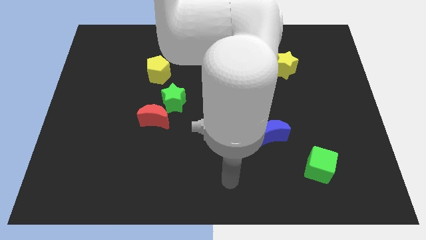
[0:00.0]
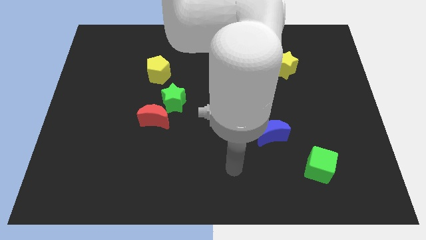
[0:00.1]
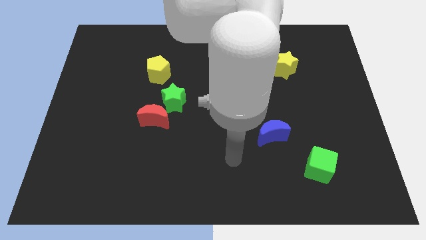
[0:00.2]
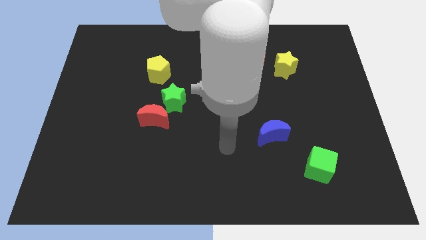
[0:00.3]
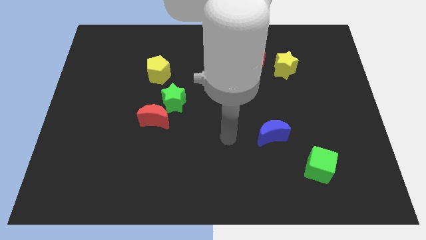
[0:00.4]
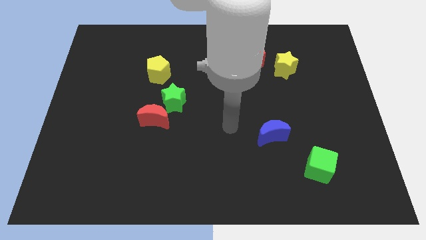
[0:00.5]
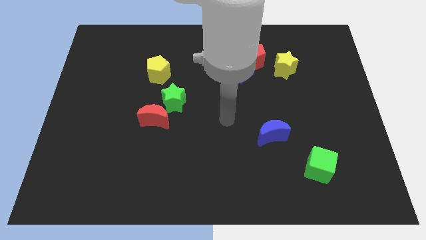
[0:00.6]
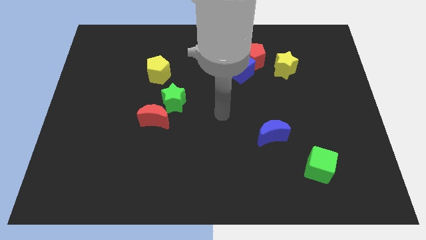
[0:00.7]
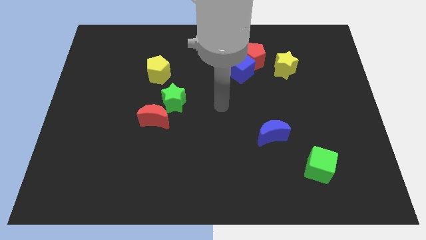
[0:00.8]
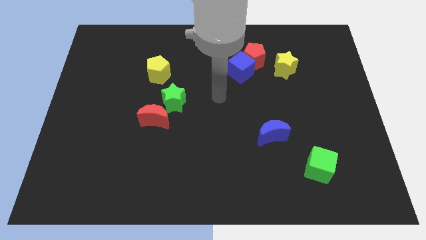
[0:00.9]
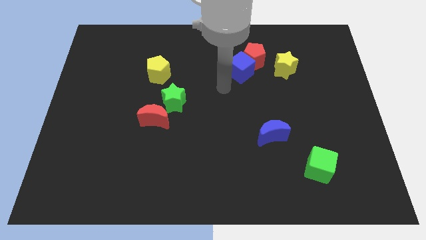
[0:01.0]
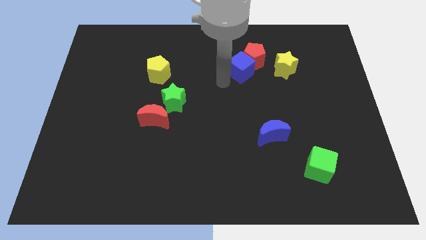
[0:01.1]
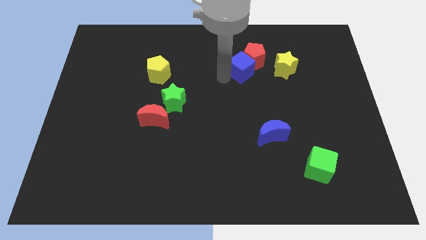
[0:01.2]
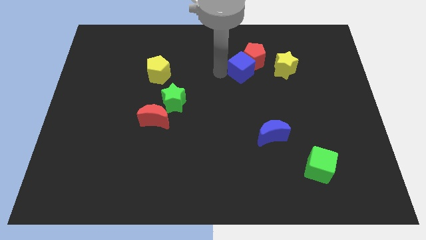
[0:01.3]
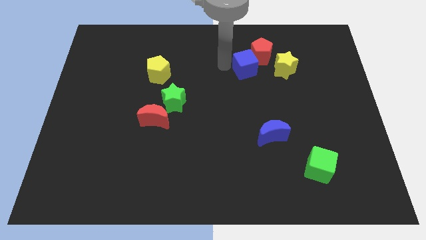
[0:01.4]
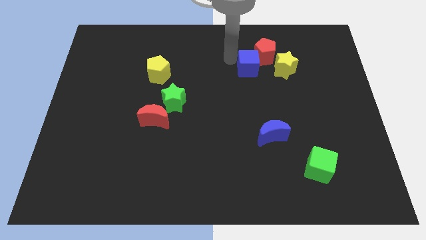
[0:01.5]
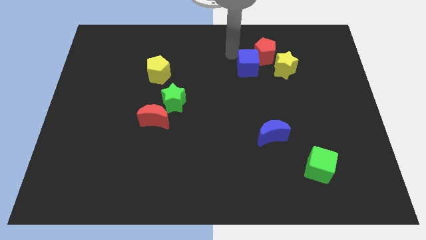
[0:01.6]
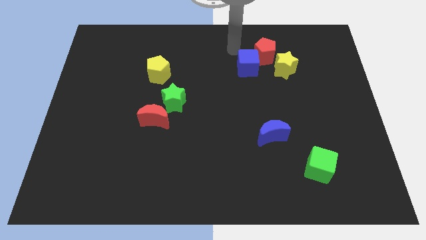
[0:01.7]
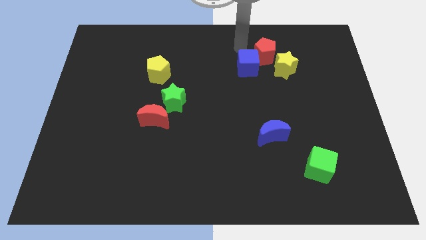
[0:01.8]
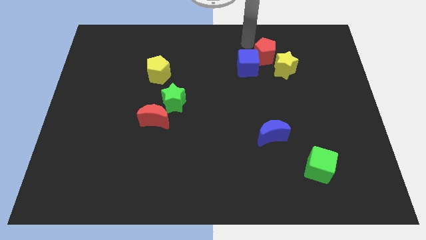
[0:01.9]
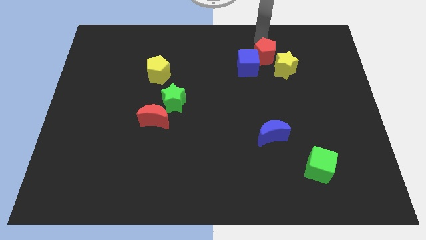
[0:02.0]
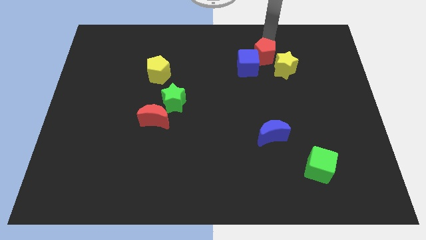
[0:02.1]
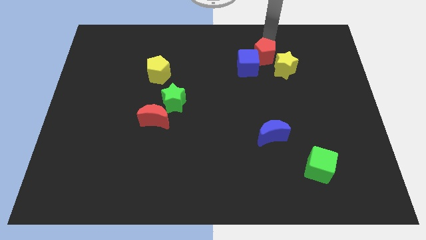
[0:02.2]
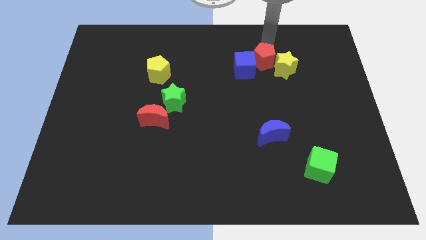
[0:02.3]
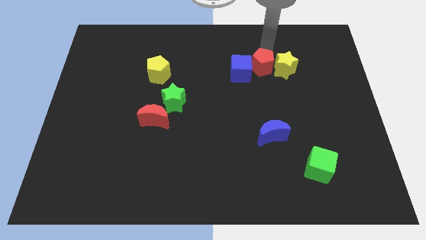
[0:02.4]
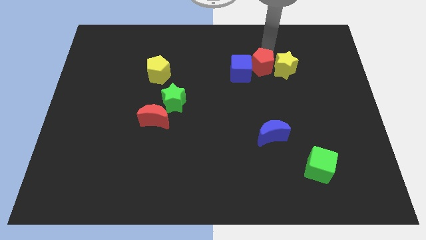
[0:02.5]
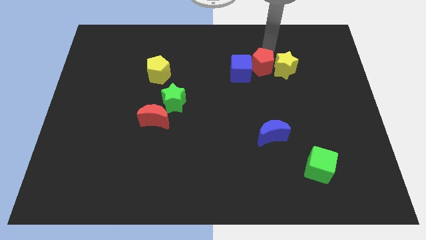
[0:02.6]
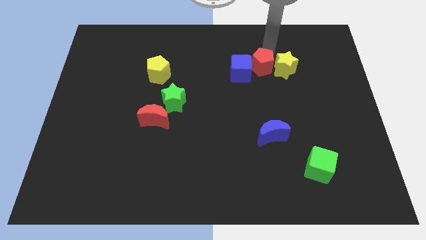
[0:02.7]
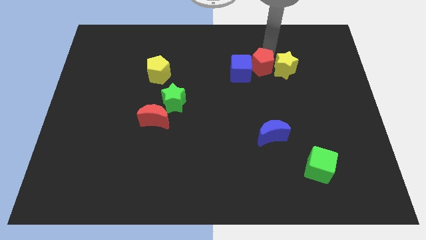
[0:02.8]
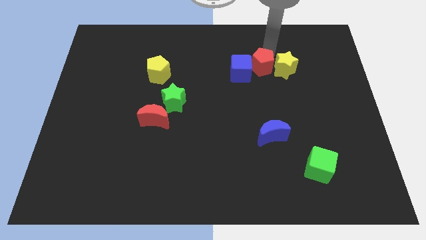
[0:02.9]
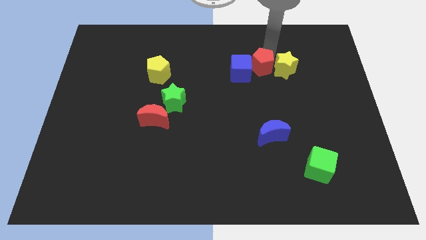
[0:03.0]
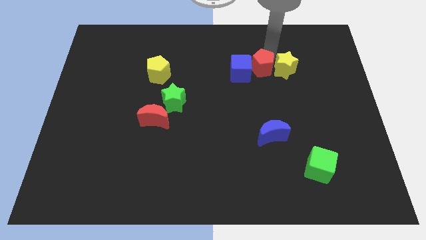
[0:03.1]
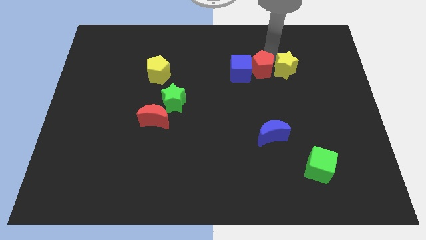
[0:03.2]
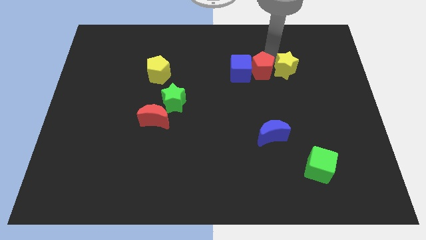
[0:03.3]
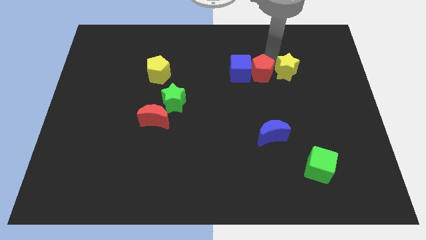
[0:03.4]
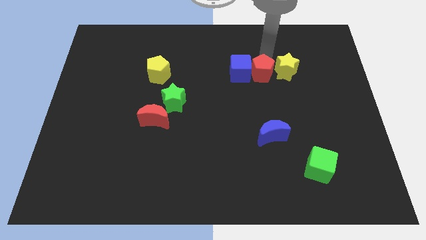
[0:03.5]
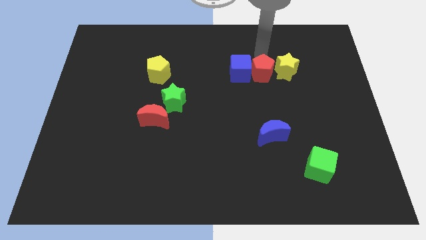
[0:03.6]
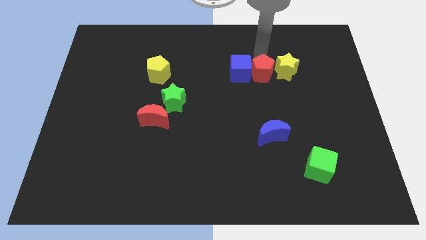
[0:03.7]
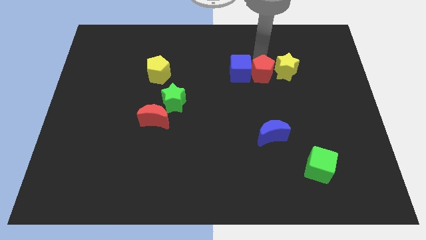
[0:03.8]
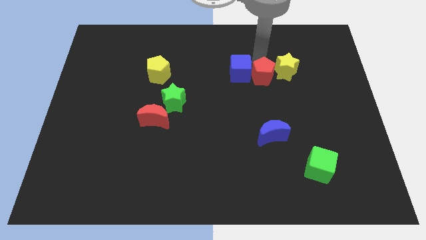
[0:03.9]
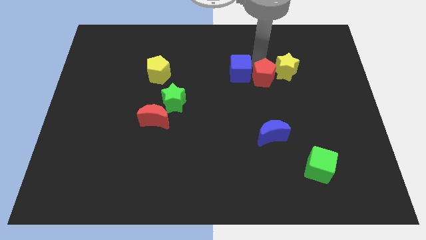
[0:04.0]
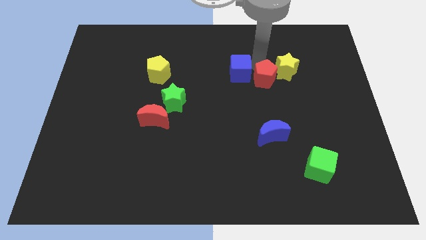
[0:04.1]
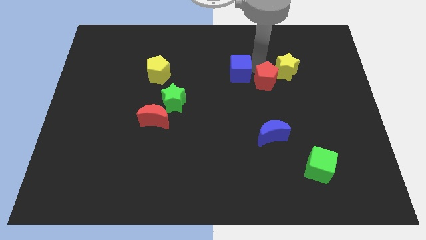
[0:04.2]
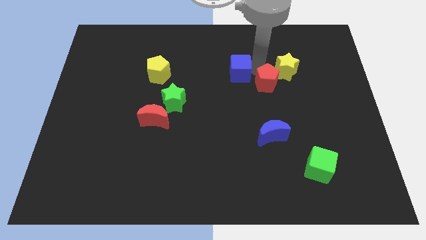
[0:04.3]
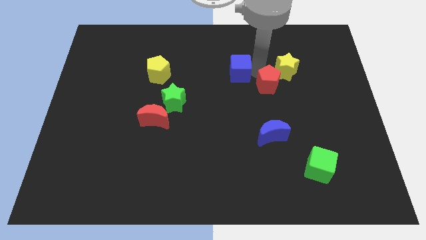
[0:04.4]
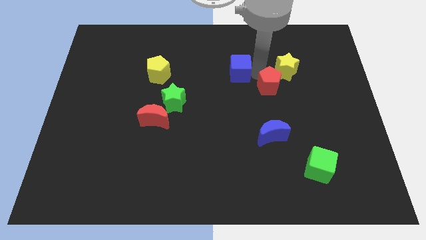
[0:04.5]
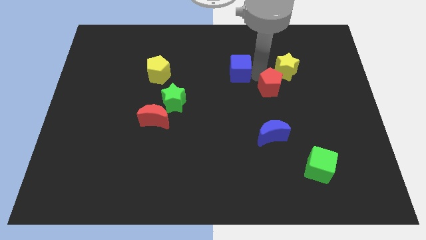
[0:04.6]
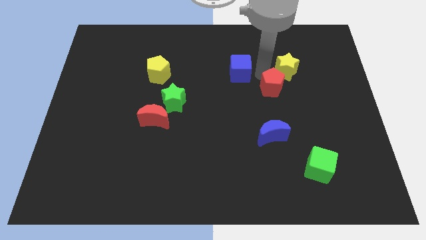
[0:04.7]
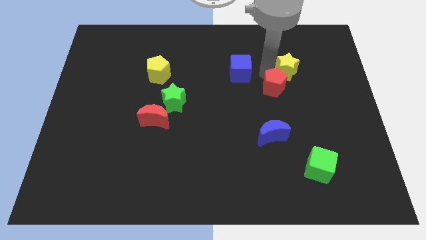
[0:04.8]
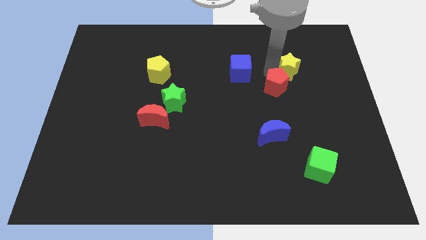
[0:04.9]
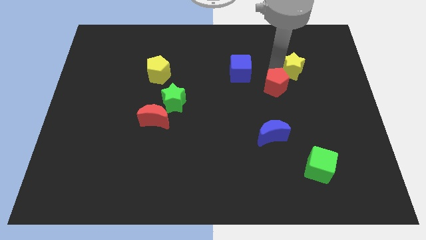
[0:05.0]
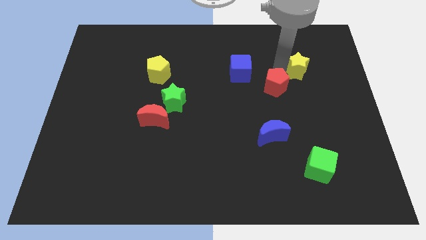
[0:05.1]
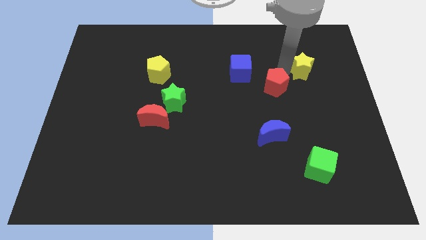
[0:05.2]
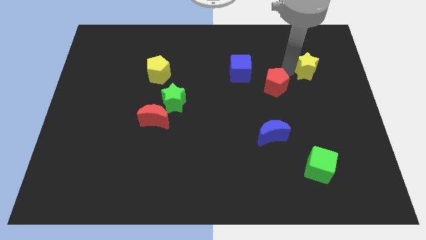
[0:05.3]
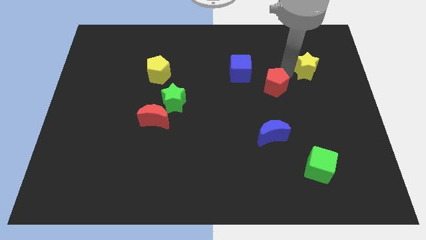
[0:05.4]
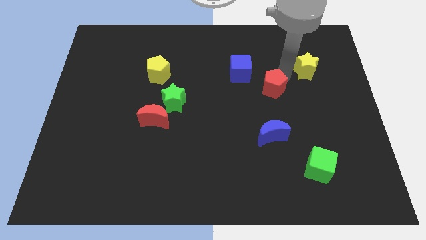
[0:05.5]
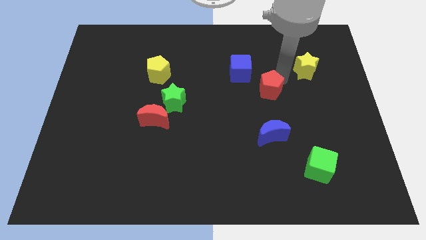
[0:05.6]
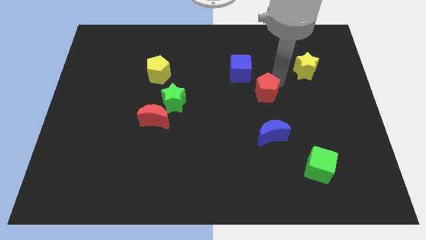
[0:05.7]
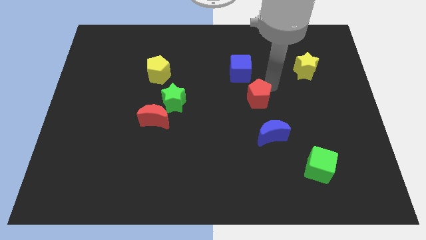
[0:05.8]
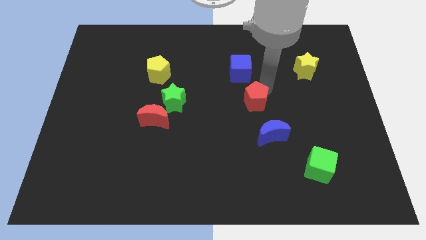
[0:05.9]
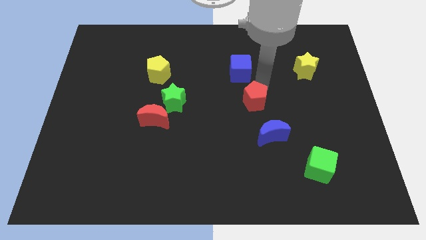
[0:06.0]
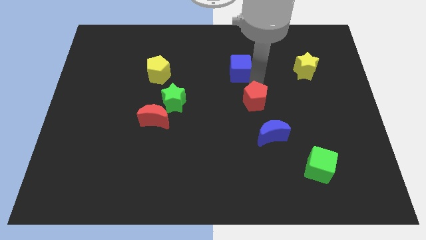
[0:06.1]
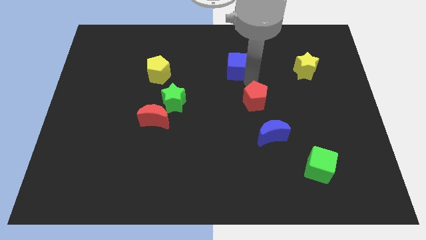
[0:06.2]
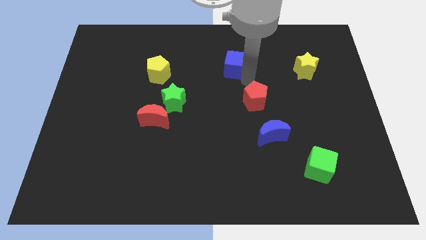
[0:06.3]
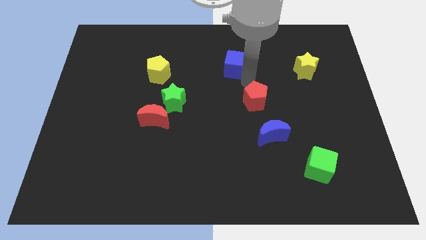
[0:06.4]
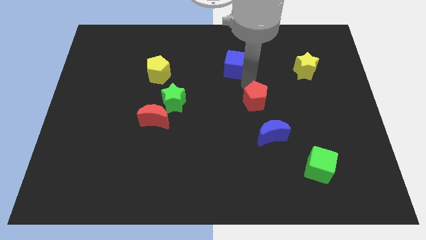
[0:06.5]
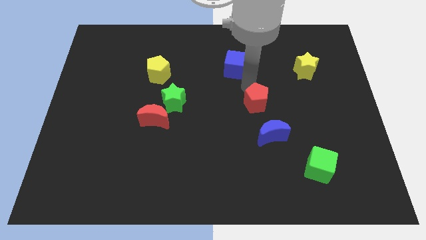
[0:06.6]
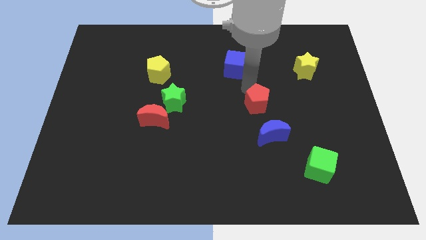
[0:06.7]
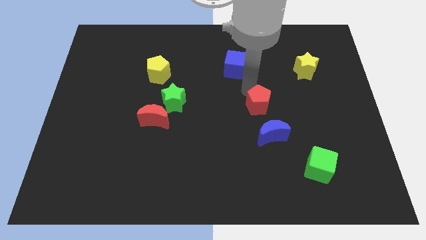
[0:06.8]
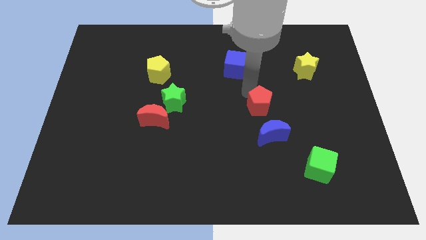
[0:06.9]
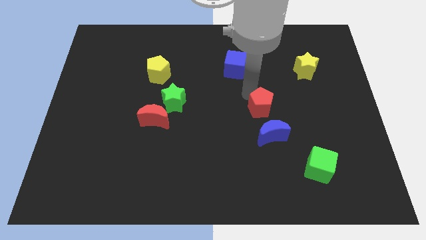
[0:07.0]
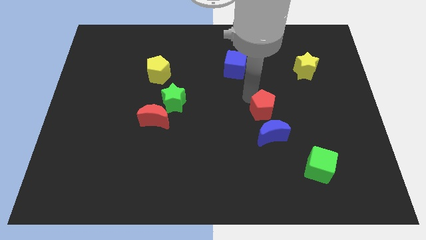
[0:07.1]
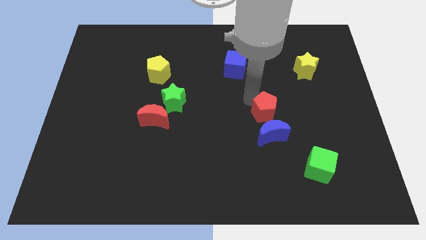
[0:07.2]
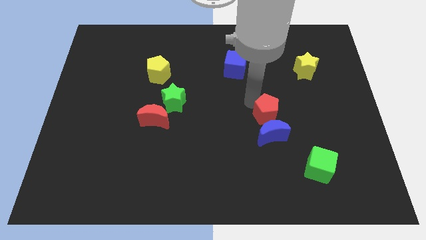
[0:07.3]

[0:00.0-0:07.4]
put the red pentagon close to the blue moon
